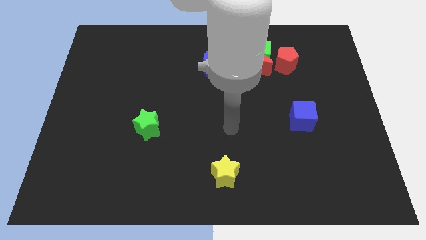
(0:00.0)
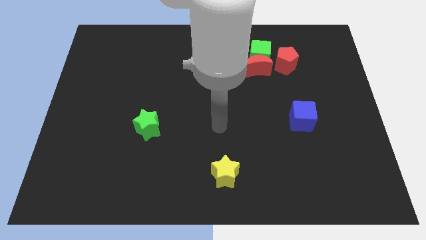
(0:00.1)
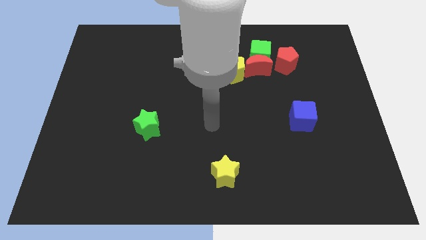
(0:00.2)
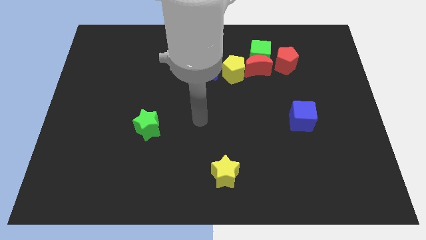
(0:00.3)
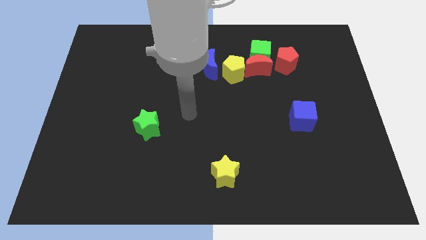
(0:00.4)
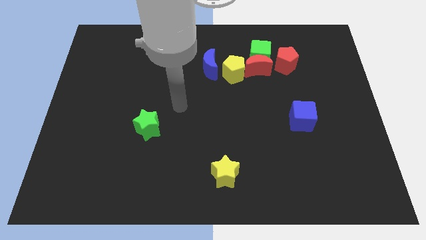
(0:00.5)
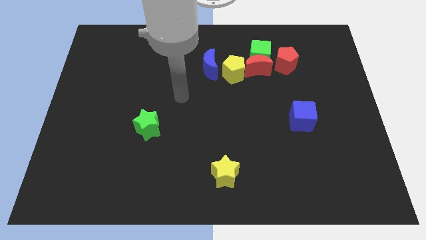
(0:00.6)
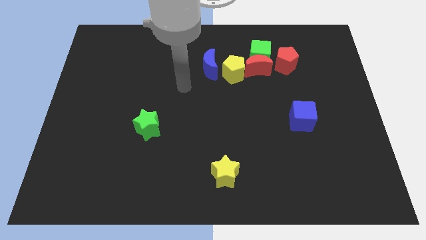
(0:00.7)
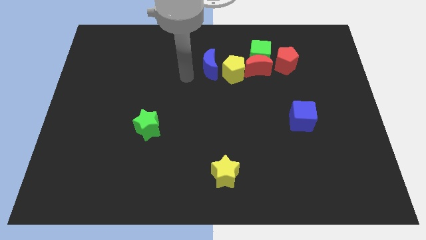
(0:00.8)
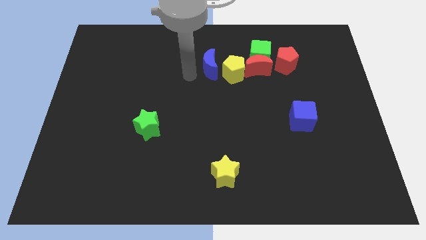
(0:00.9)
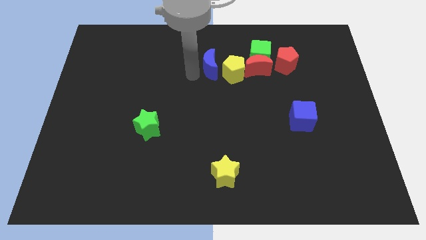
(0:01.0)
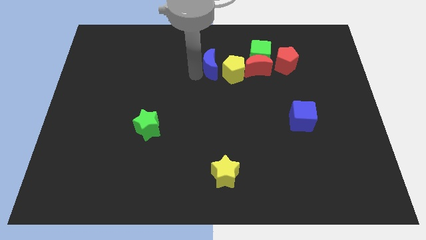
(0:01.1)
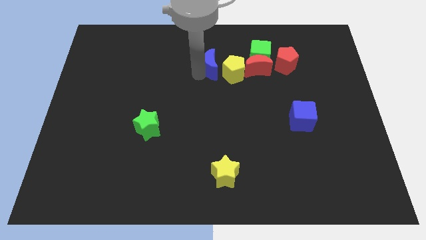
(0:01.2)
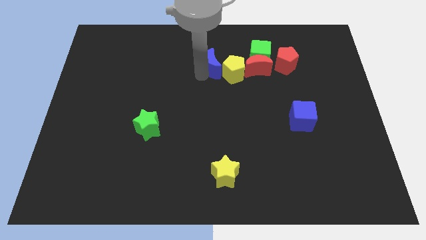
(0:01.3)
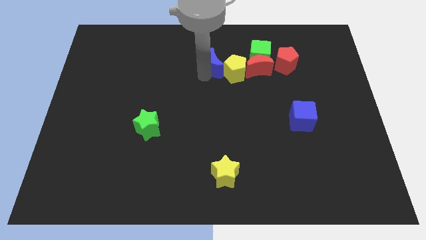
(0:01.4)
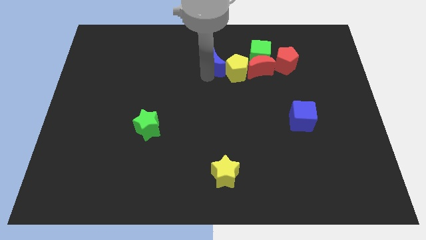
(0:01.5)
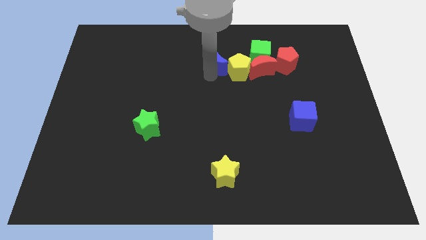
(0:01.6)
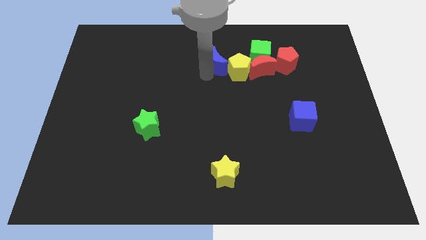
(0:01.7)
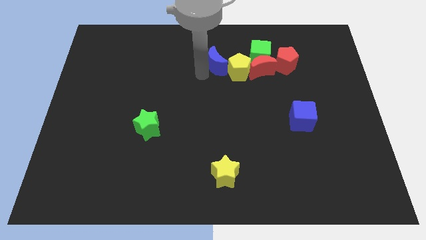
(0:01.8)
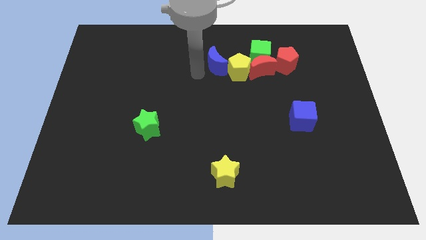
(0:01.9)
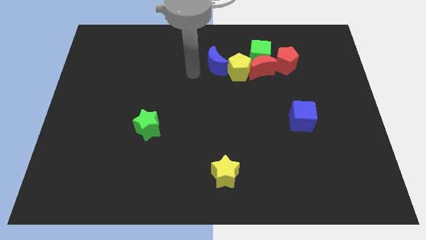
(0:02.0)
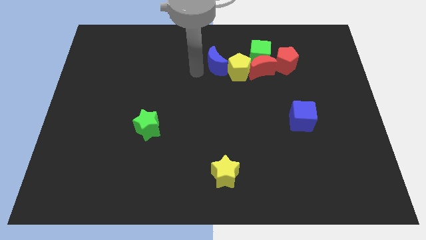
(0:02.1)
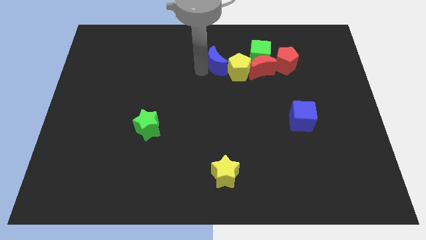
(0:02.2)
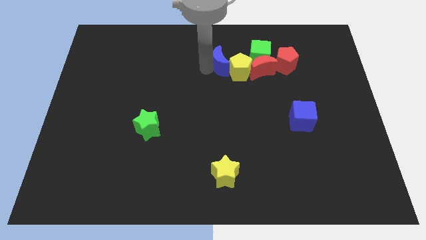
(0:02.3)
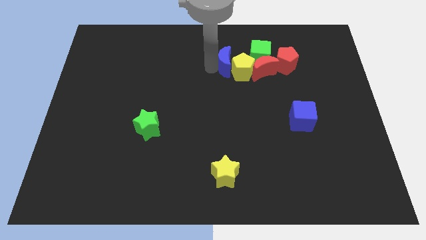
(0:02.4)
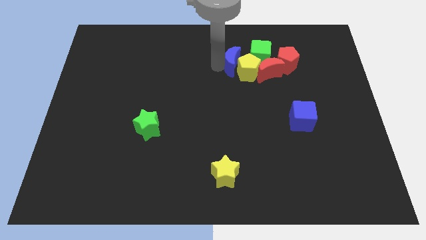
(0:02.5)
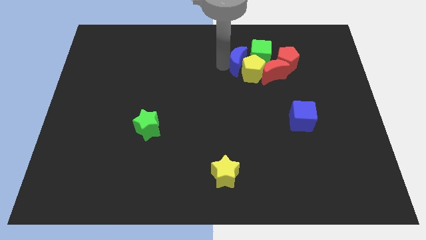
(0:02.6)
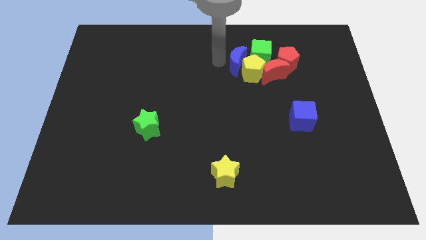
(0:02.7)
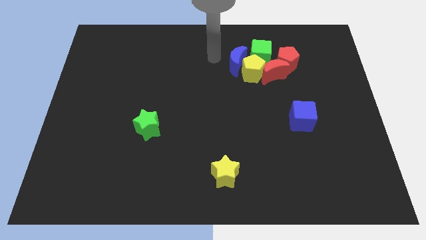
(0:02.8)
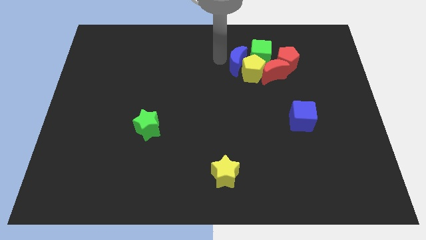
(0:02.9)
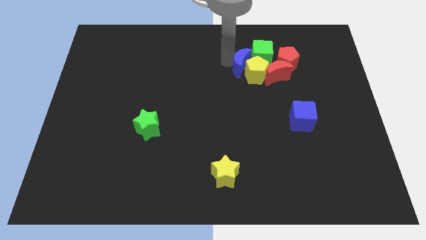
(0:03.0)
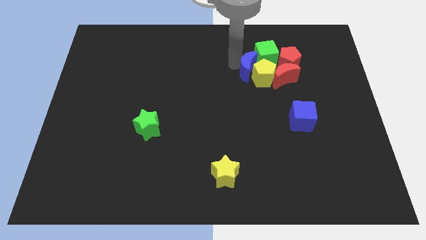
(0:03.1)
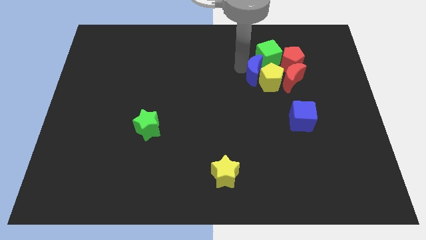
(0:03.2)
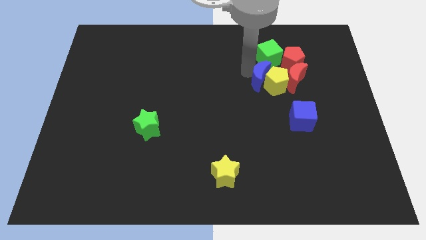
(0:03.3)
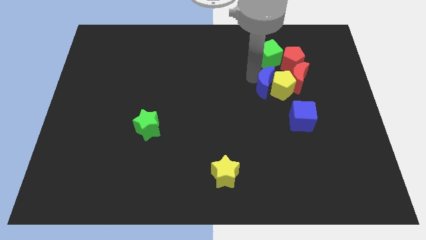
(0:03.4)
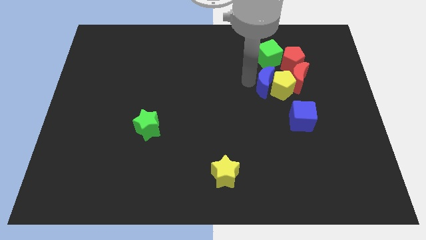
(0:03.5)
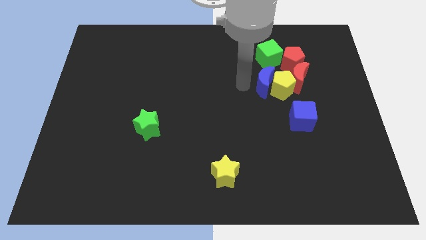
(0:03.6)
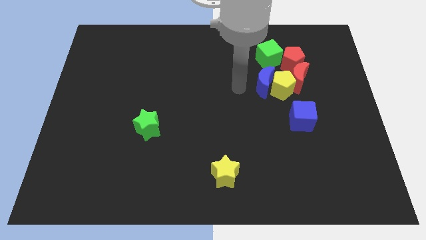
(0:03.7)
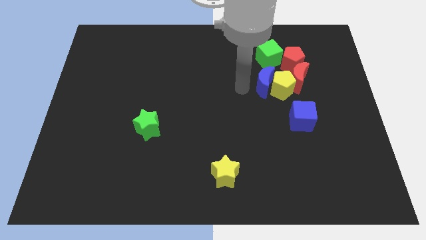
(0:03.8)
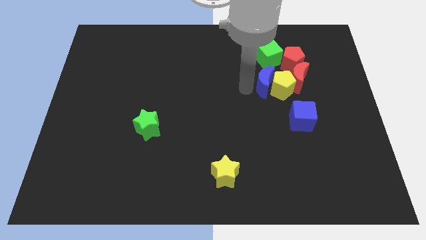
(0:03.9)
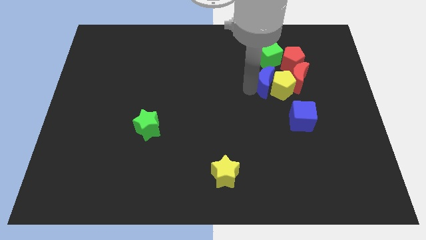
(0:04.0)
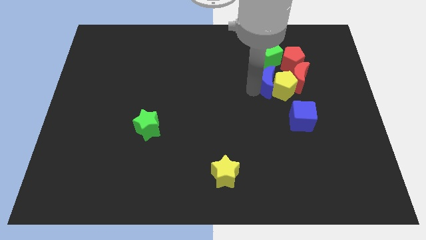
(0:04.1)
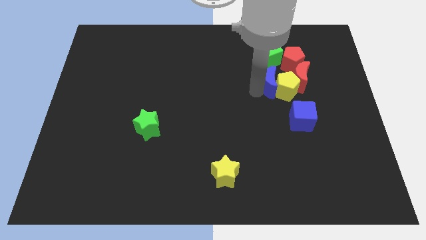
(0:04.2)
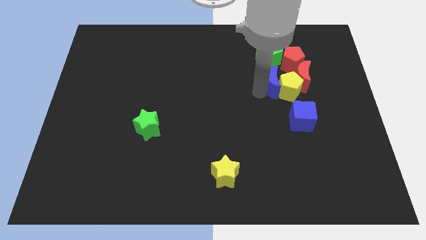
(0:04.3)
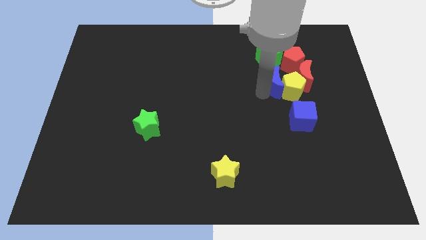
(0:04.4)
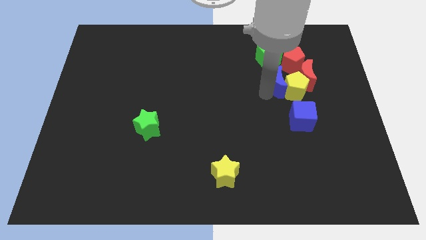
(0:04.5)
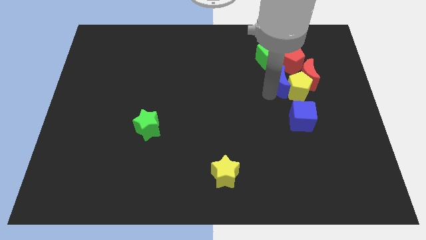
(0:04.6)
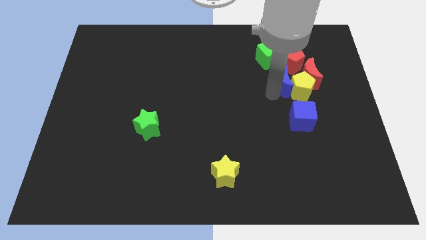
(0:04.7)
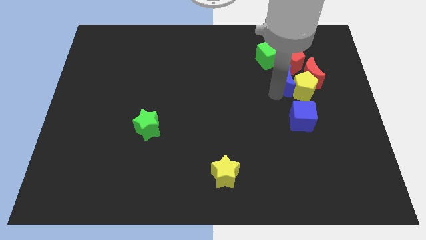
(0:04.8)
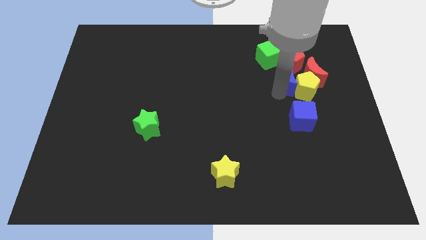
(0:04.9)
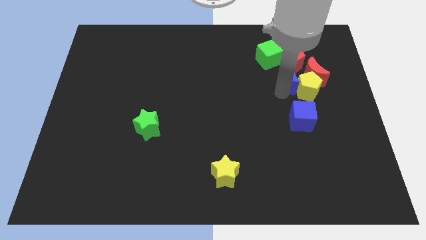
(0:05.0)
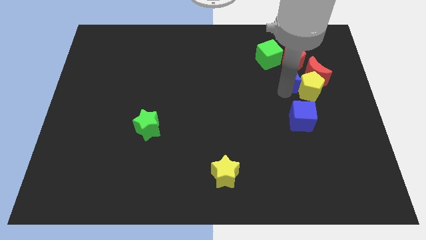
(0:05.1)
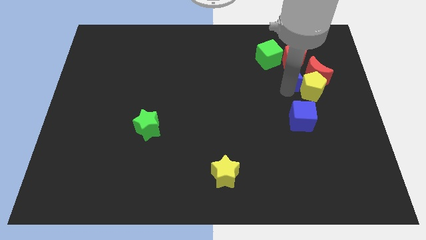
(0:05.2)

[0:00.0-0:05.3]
put the blue moon close to the red moon

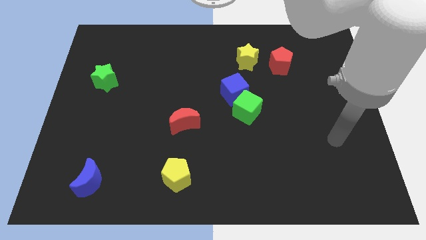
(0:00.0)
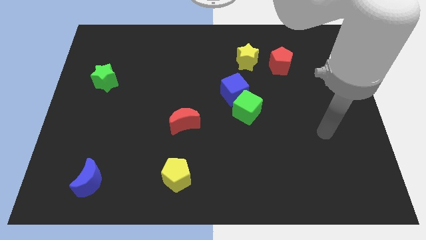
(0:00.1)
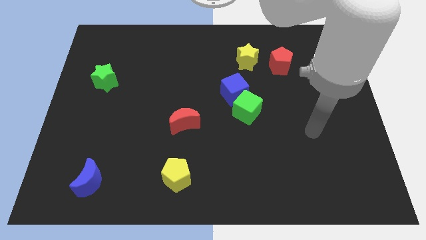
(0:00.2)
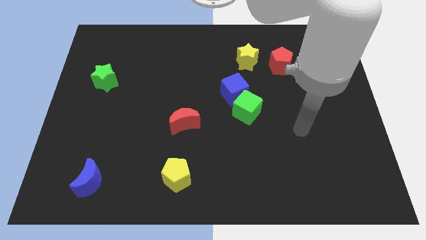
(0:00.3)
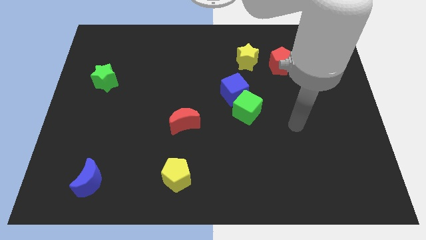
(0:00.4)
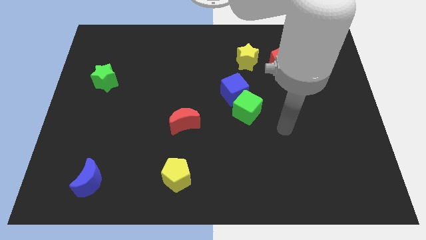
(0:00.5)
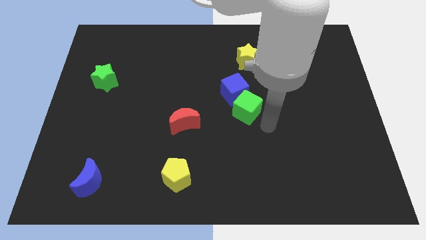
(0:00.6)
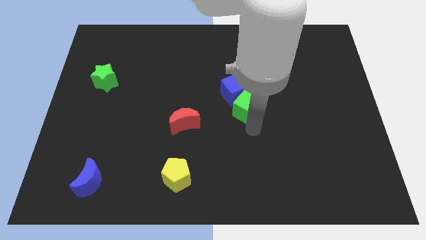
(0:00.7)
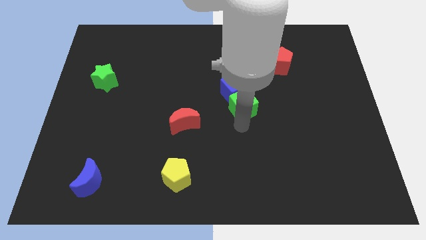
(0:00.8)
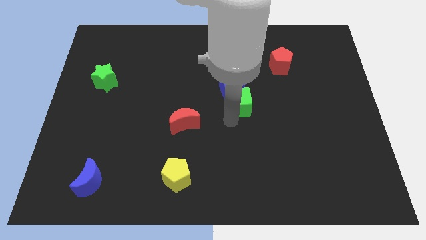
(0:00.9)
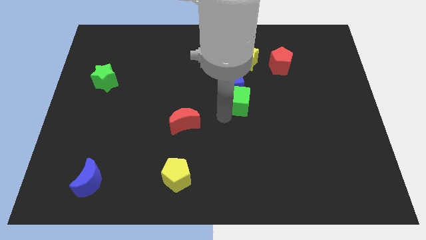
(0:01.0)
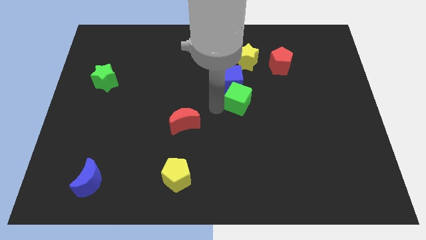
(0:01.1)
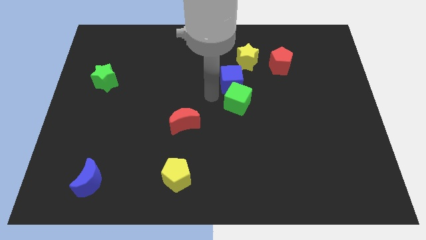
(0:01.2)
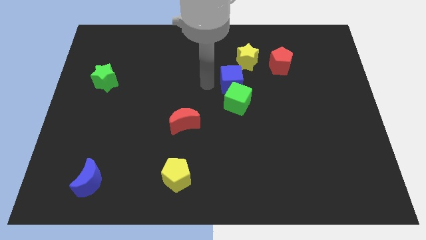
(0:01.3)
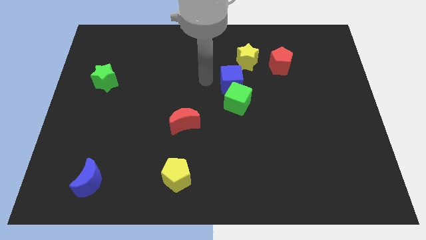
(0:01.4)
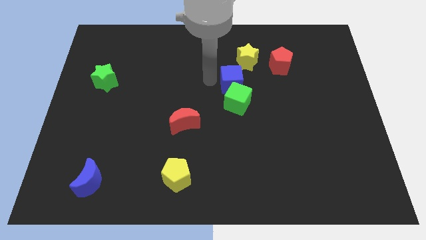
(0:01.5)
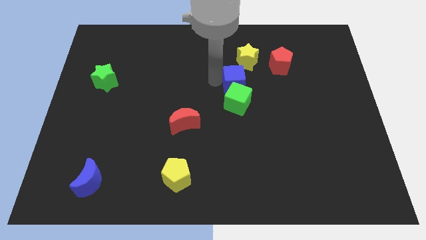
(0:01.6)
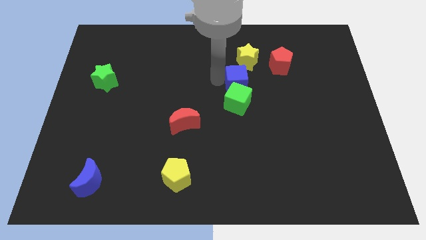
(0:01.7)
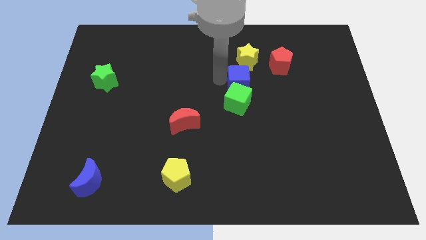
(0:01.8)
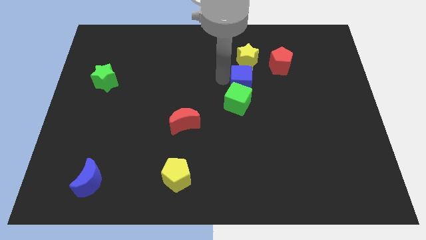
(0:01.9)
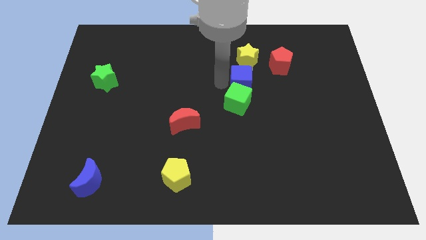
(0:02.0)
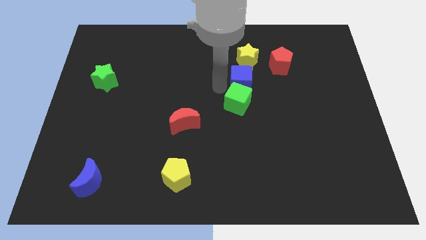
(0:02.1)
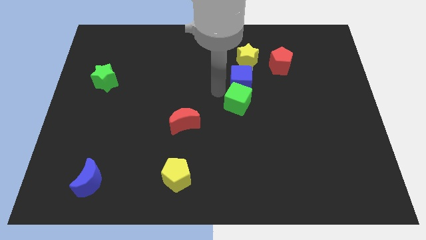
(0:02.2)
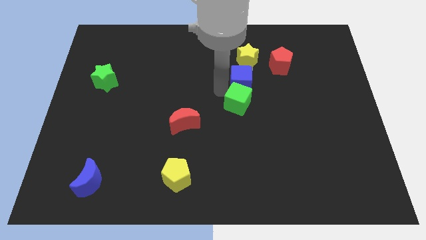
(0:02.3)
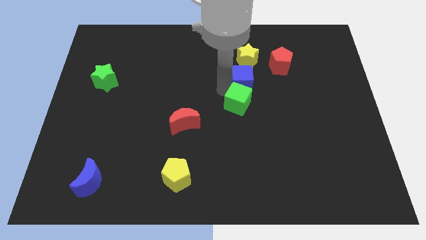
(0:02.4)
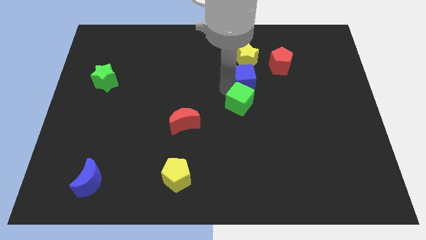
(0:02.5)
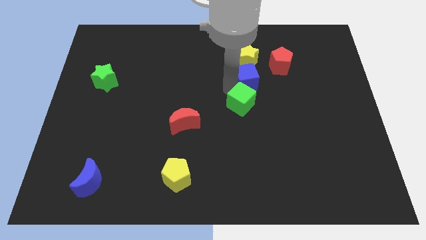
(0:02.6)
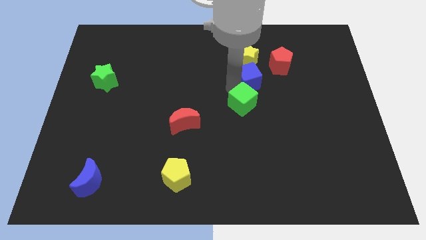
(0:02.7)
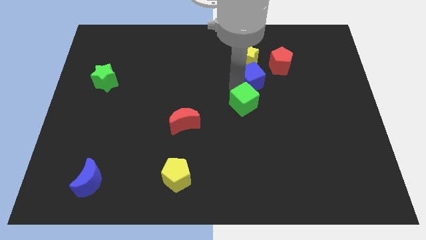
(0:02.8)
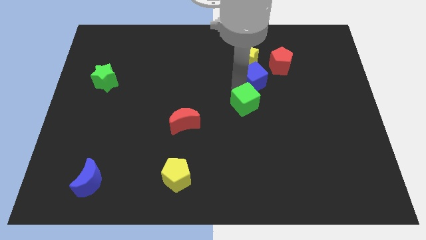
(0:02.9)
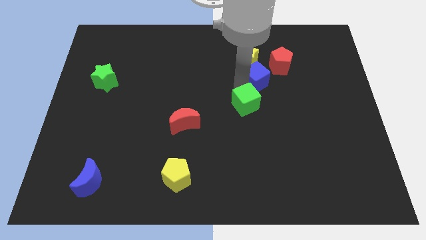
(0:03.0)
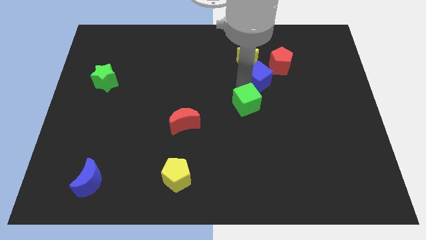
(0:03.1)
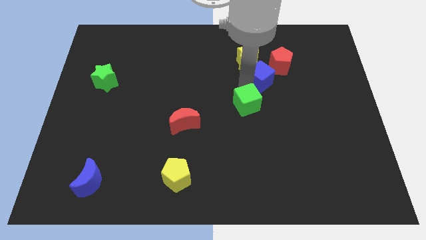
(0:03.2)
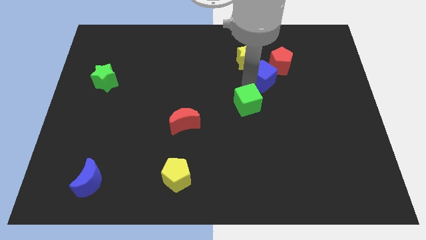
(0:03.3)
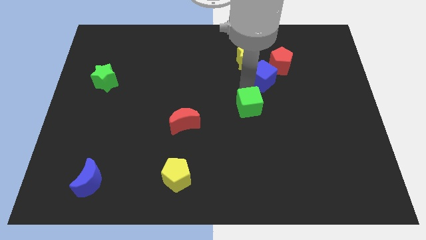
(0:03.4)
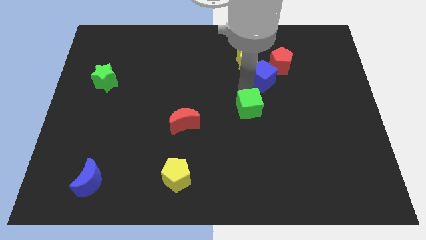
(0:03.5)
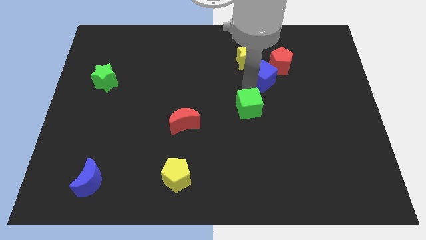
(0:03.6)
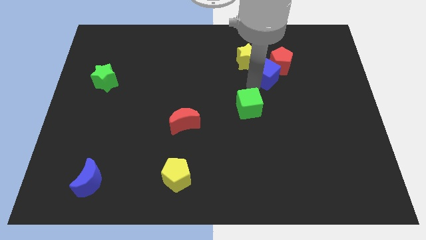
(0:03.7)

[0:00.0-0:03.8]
put the blue cube to the red pentagon
